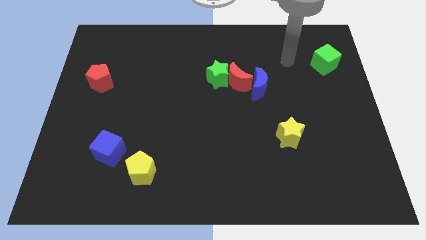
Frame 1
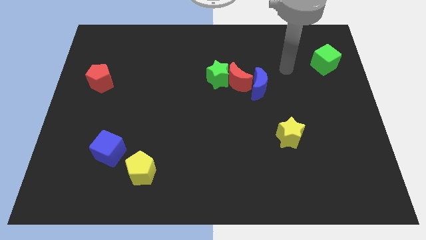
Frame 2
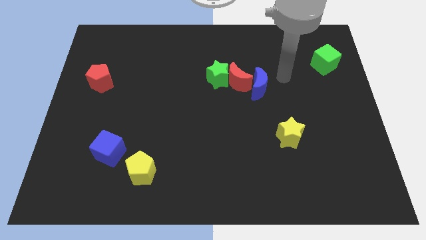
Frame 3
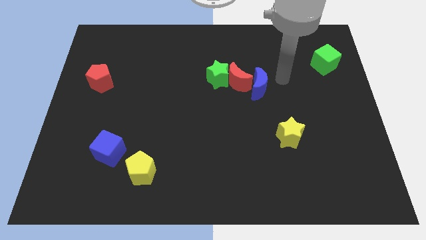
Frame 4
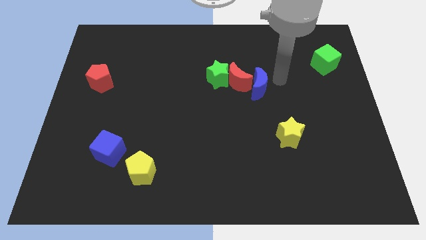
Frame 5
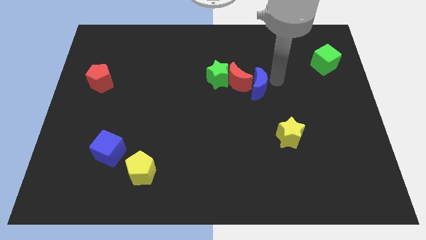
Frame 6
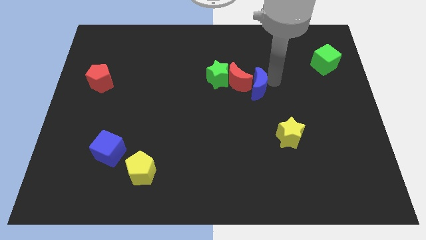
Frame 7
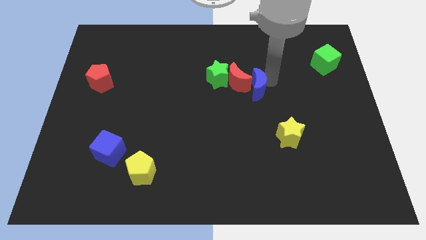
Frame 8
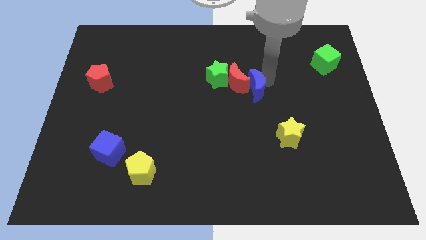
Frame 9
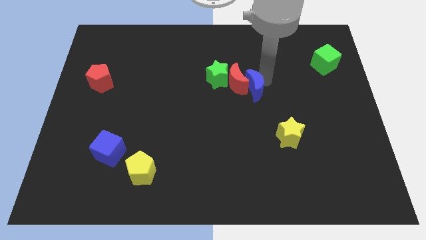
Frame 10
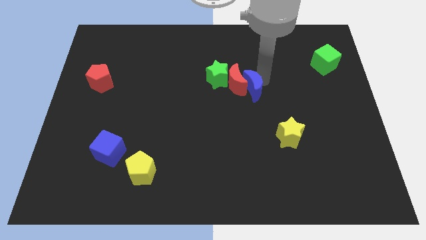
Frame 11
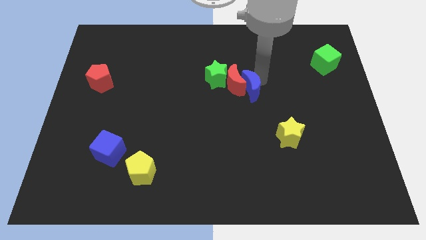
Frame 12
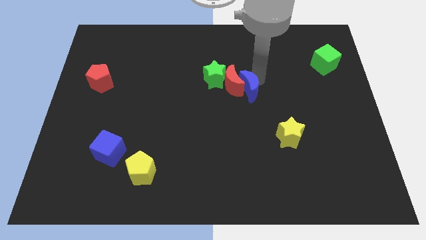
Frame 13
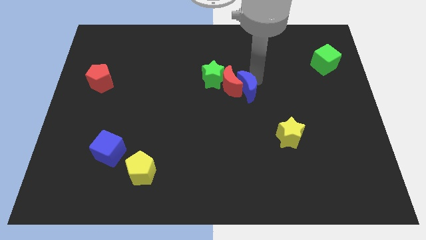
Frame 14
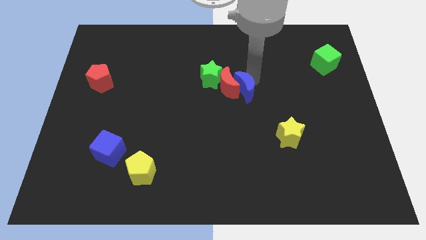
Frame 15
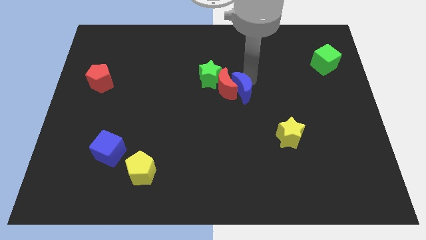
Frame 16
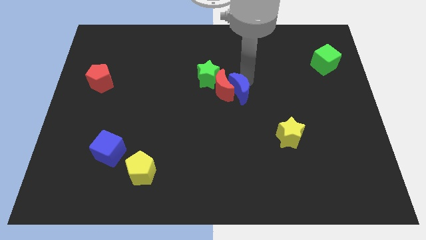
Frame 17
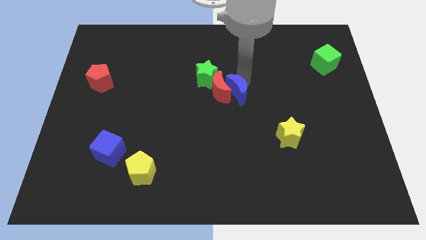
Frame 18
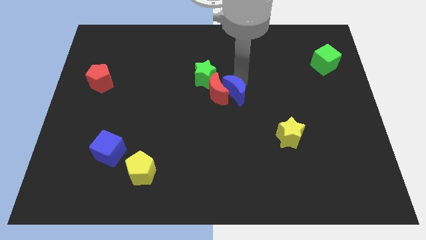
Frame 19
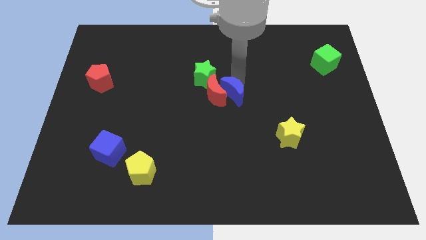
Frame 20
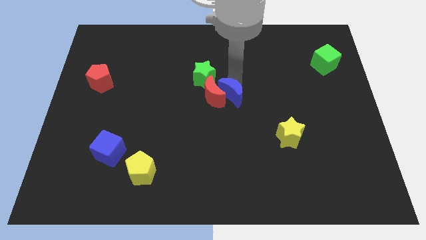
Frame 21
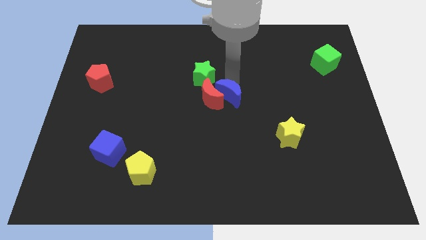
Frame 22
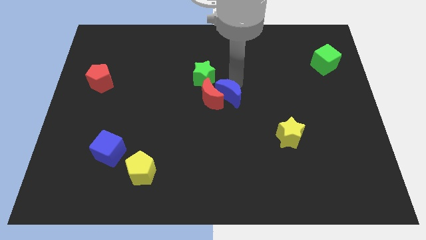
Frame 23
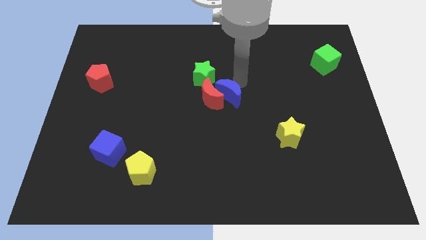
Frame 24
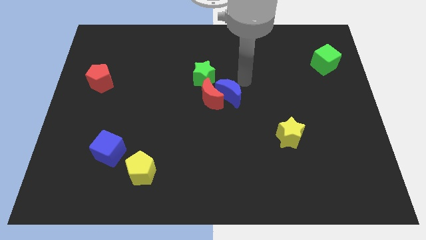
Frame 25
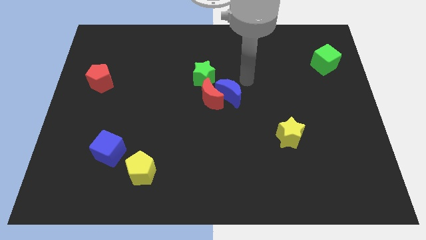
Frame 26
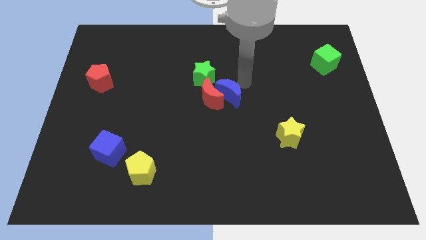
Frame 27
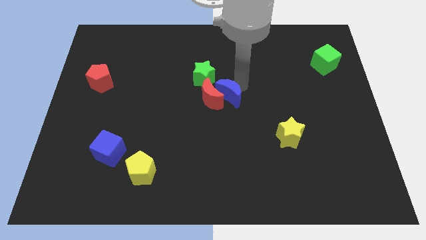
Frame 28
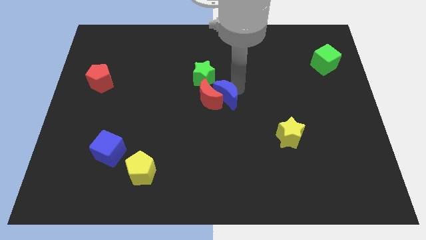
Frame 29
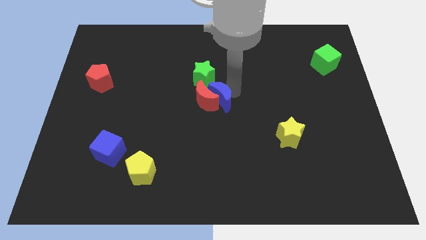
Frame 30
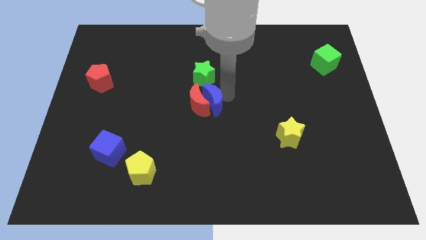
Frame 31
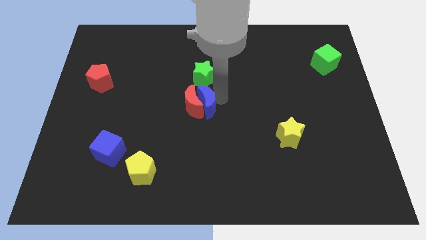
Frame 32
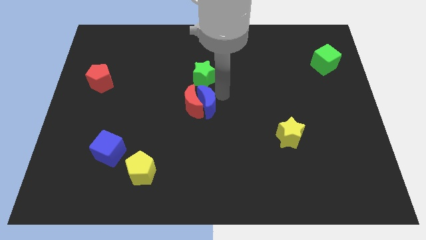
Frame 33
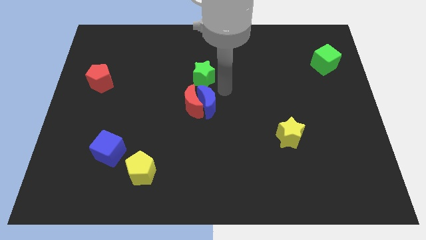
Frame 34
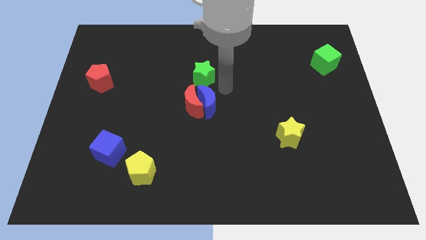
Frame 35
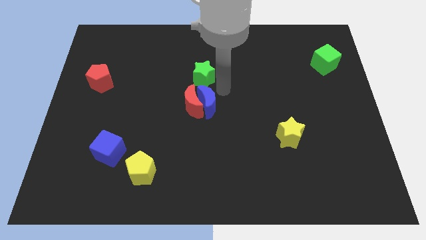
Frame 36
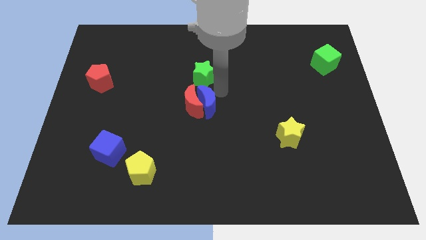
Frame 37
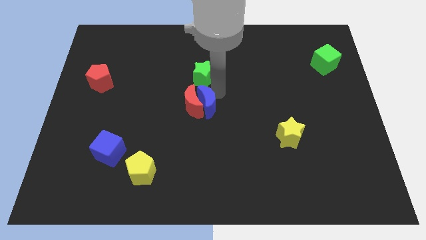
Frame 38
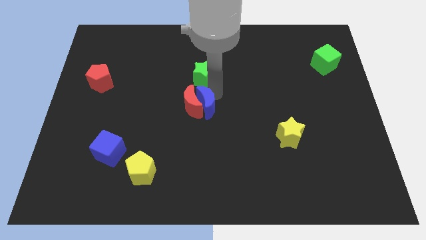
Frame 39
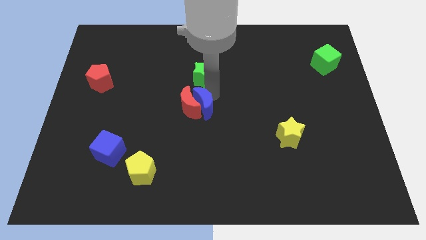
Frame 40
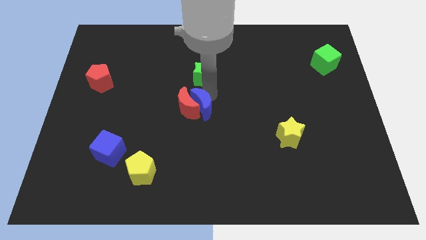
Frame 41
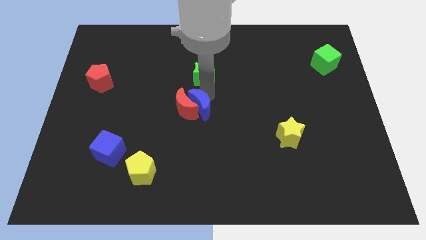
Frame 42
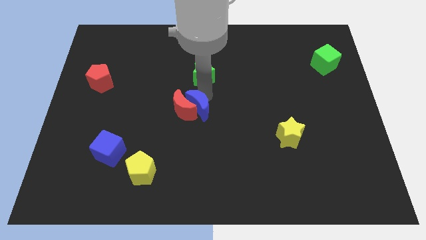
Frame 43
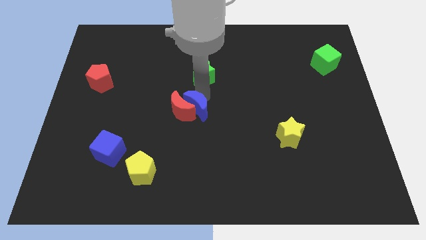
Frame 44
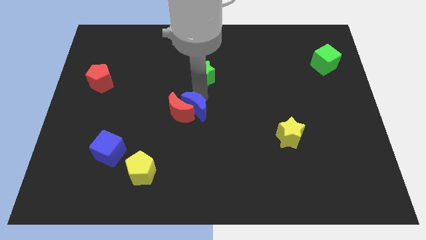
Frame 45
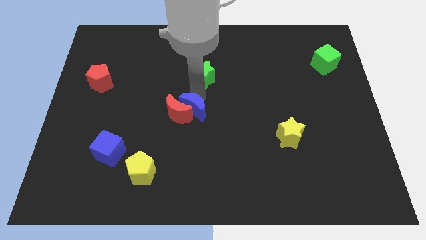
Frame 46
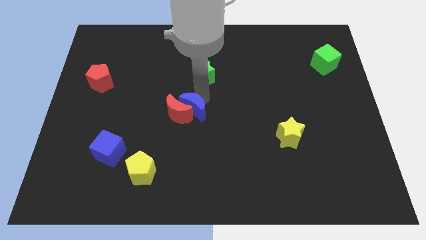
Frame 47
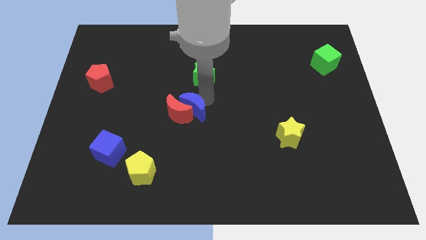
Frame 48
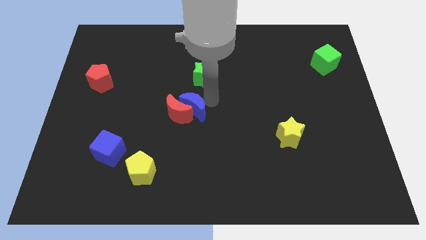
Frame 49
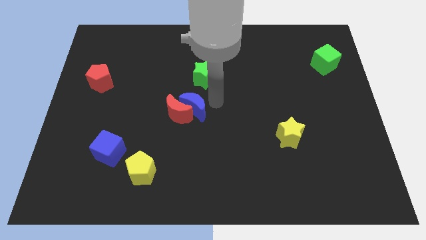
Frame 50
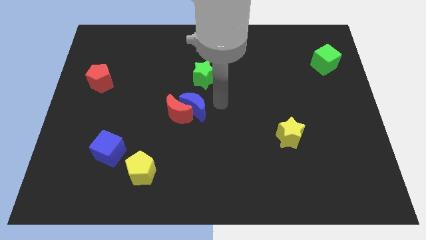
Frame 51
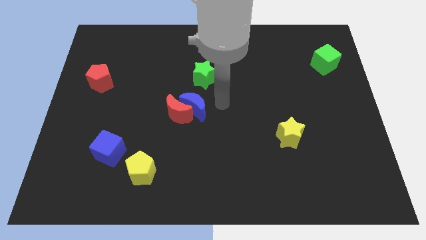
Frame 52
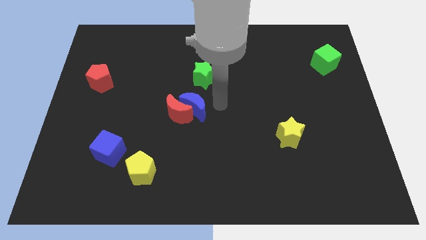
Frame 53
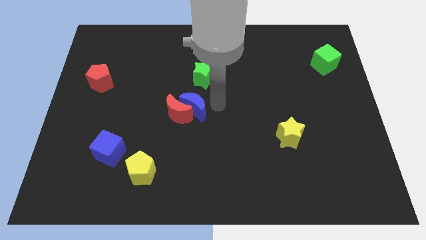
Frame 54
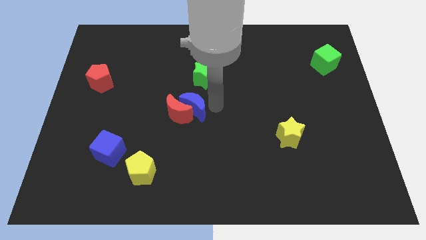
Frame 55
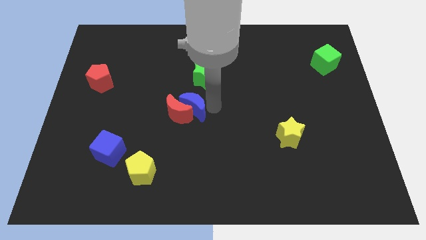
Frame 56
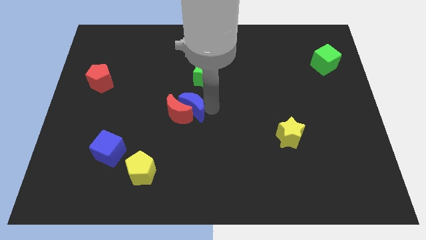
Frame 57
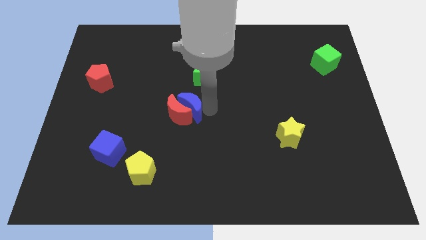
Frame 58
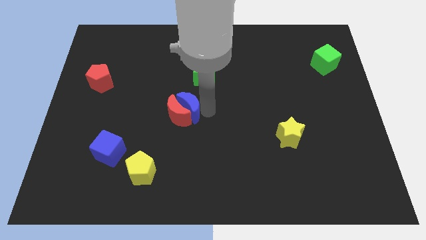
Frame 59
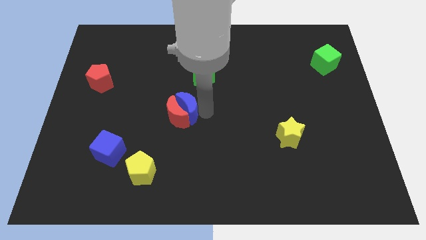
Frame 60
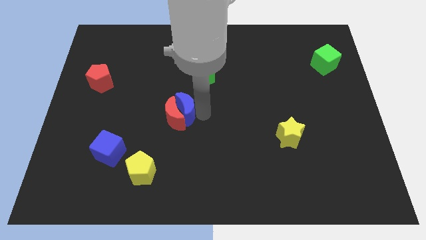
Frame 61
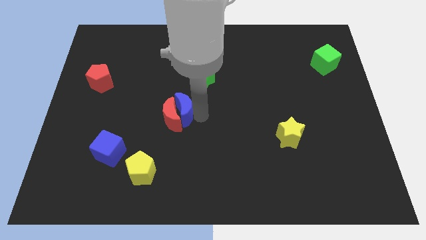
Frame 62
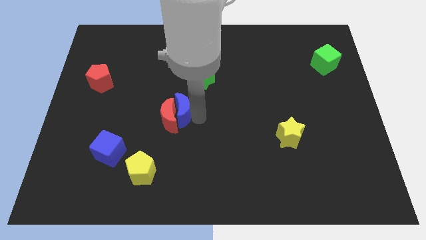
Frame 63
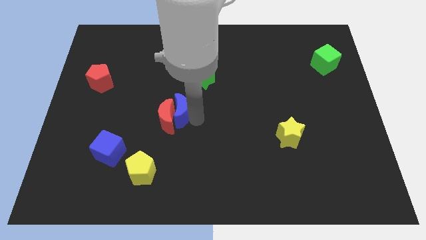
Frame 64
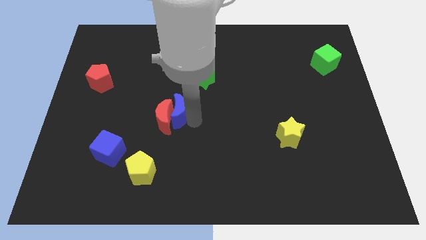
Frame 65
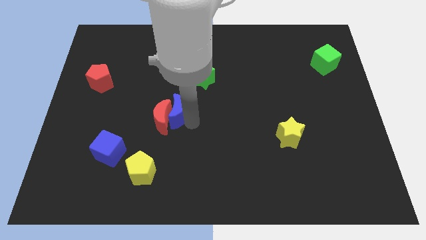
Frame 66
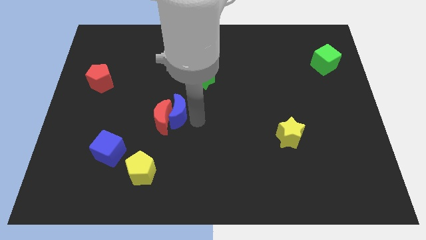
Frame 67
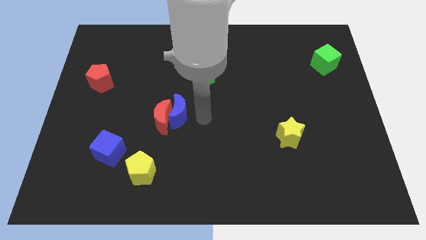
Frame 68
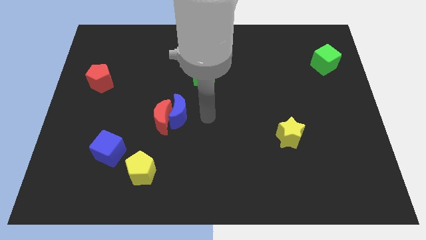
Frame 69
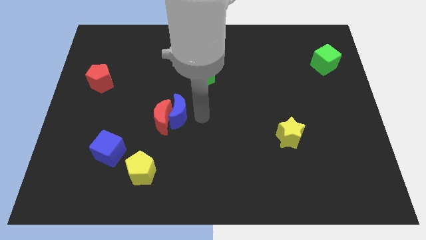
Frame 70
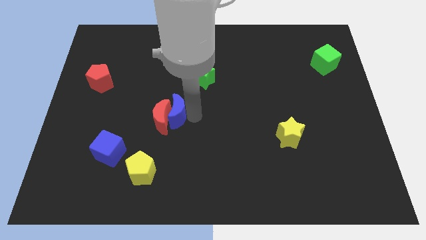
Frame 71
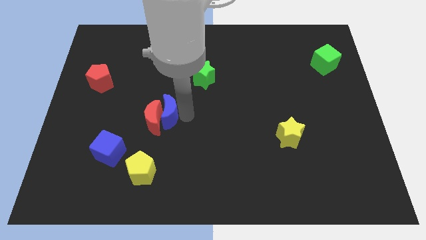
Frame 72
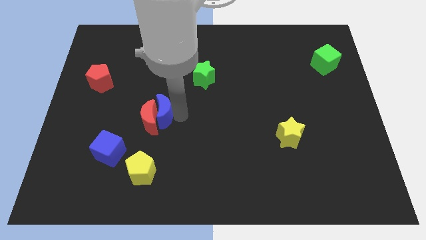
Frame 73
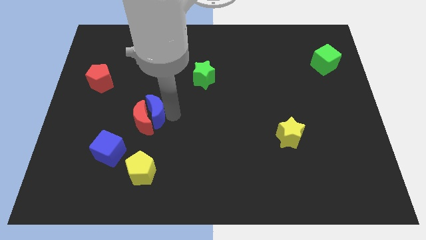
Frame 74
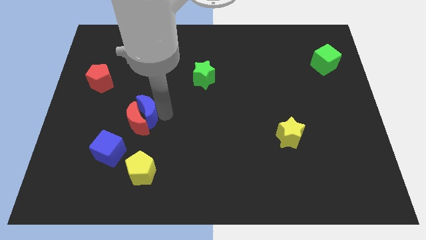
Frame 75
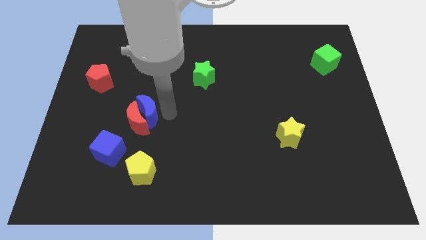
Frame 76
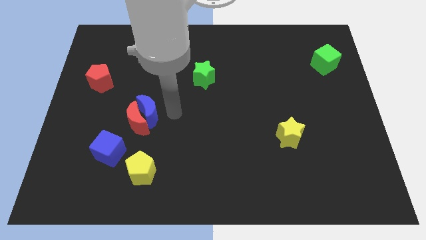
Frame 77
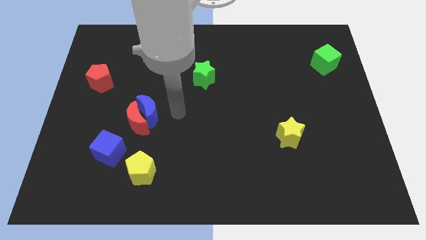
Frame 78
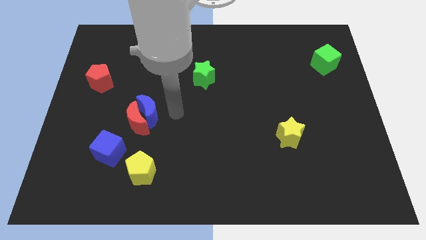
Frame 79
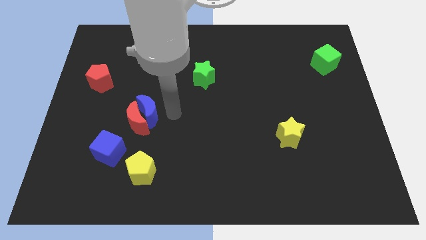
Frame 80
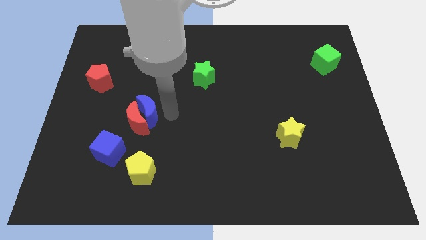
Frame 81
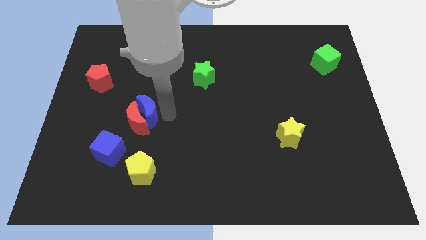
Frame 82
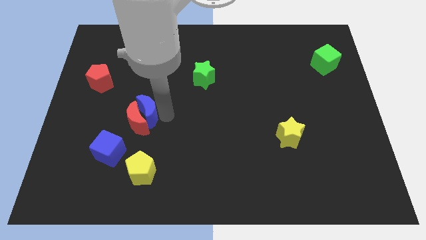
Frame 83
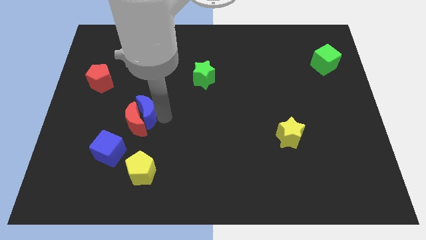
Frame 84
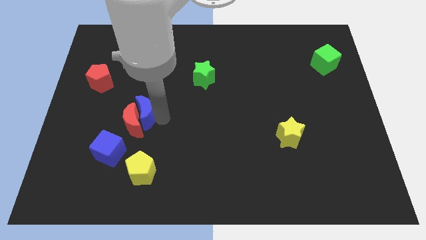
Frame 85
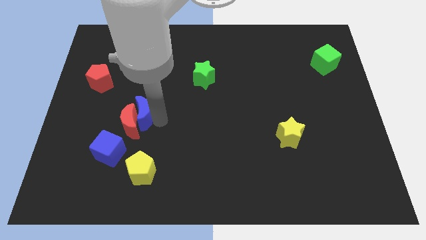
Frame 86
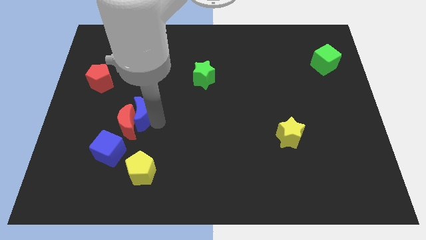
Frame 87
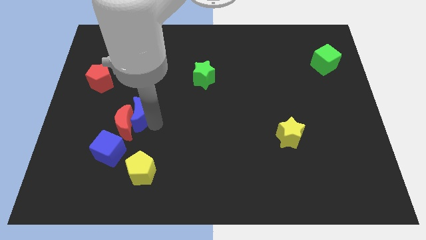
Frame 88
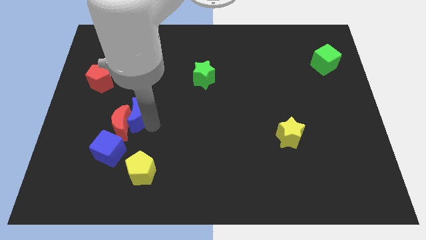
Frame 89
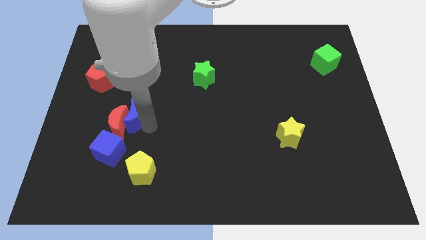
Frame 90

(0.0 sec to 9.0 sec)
slide the blue moon to the top of the blue cube
